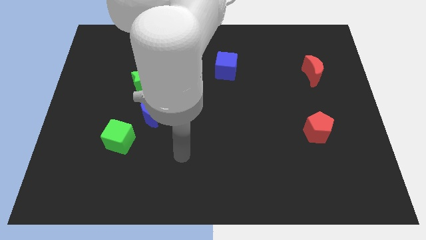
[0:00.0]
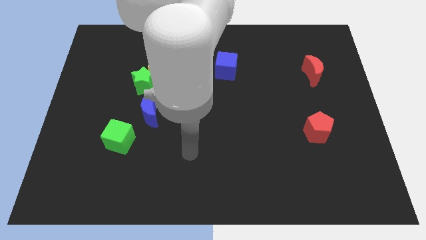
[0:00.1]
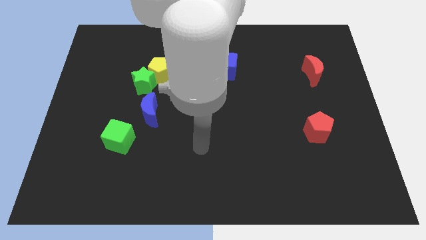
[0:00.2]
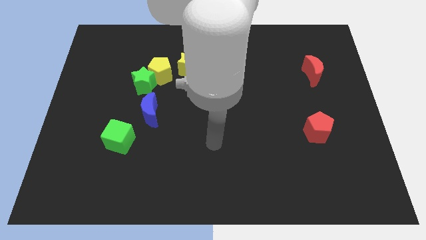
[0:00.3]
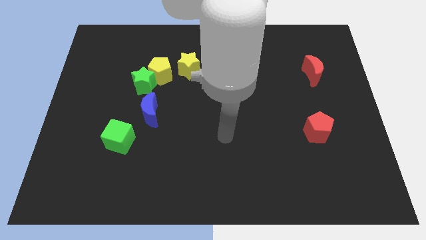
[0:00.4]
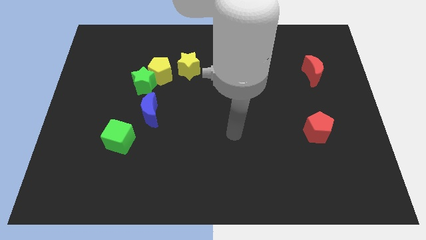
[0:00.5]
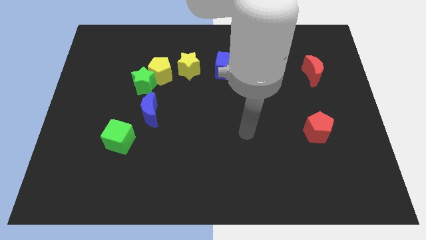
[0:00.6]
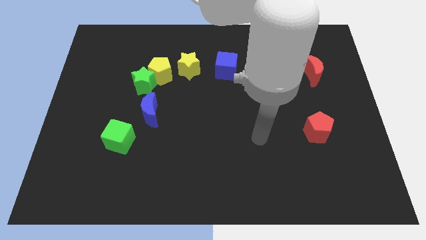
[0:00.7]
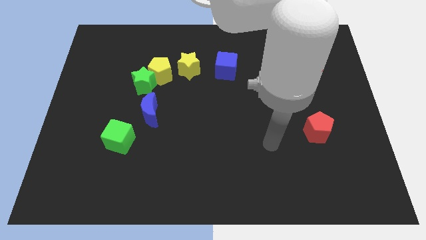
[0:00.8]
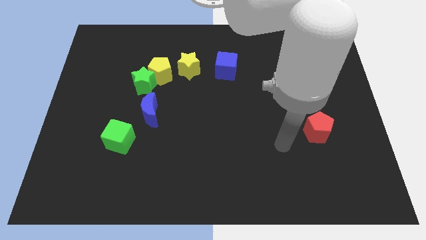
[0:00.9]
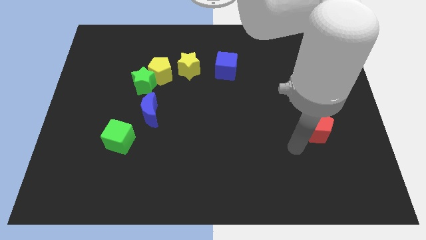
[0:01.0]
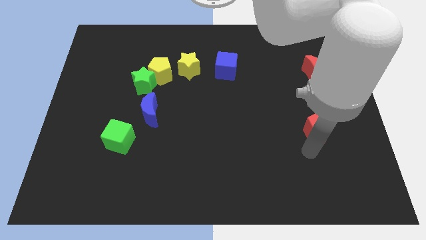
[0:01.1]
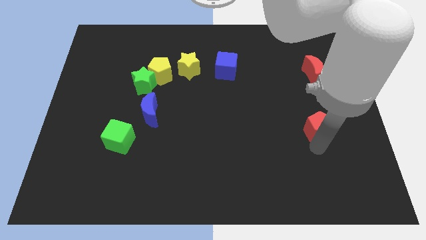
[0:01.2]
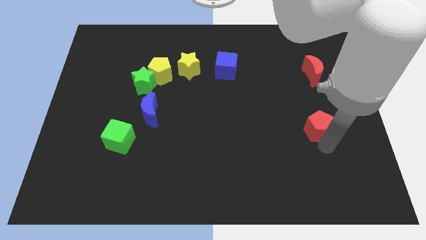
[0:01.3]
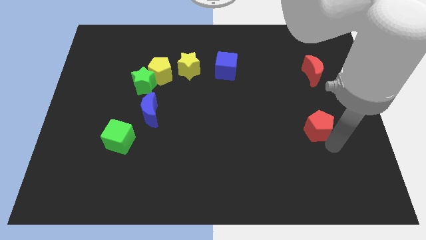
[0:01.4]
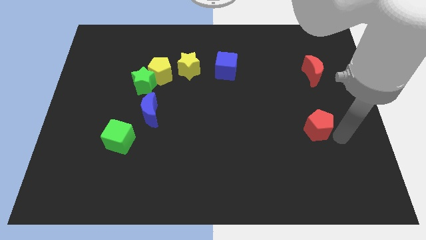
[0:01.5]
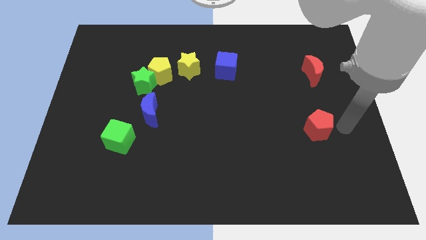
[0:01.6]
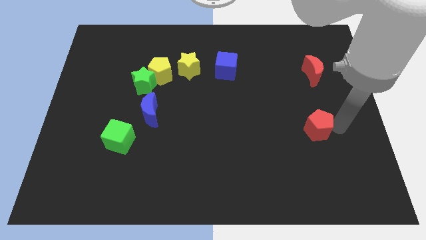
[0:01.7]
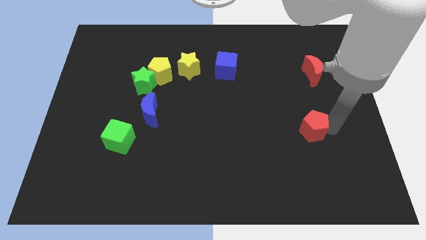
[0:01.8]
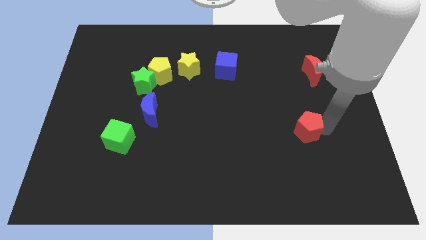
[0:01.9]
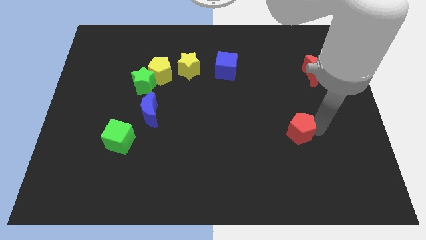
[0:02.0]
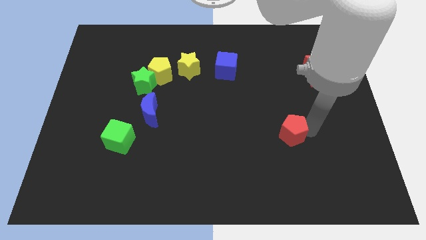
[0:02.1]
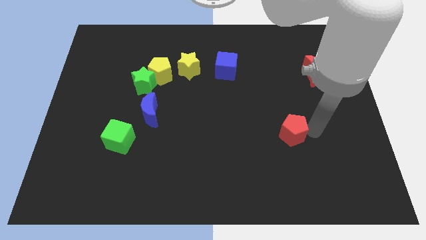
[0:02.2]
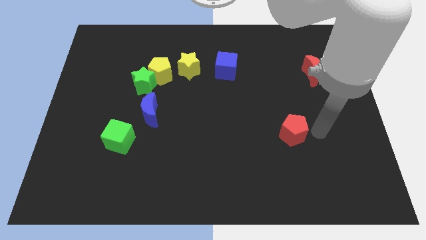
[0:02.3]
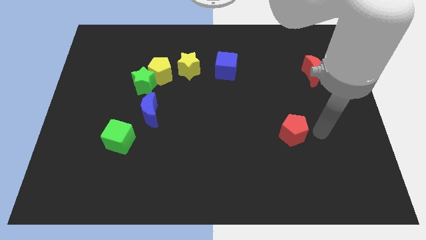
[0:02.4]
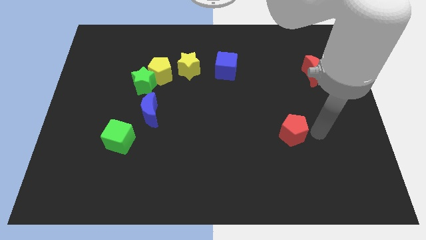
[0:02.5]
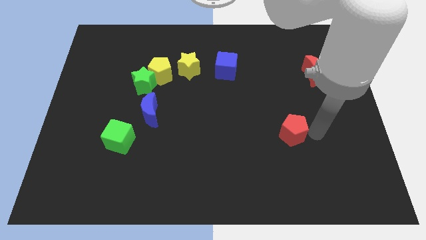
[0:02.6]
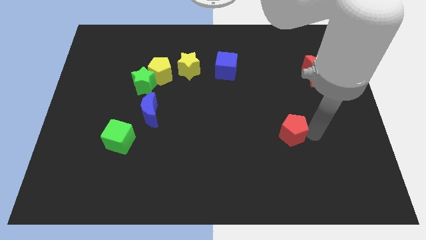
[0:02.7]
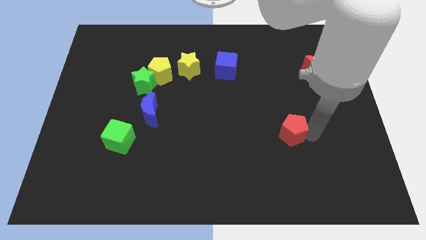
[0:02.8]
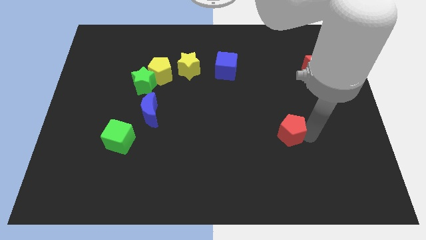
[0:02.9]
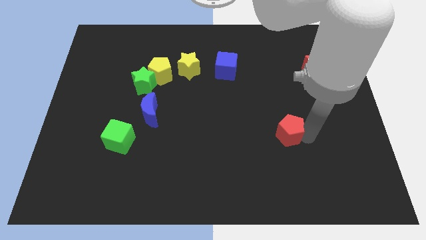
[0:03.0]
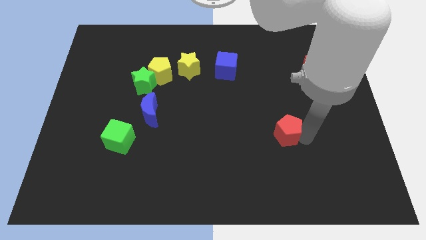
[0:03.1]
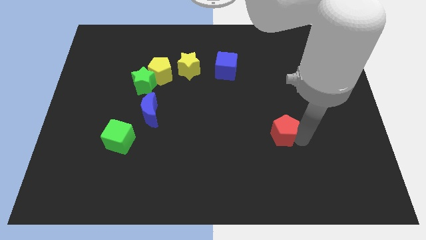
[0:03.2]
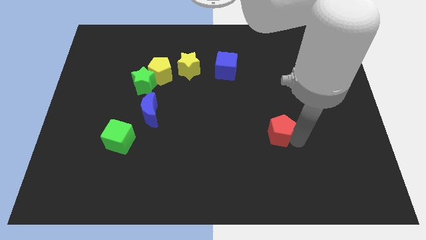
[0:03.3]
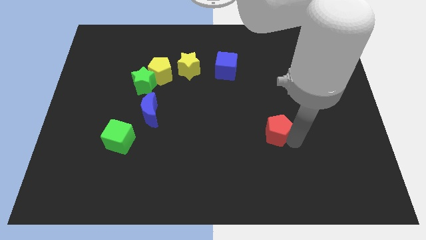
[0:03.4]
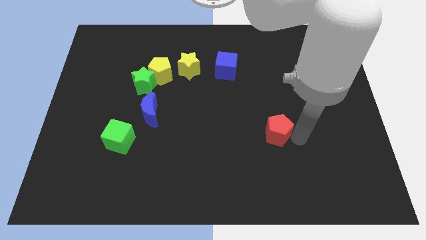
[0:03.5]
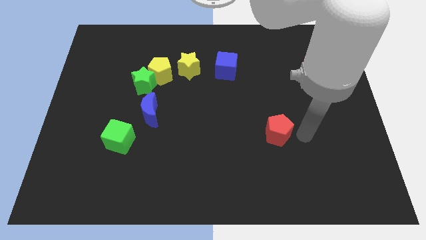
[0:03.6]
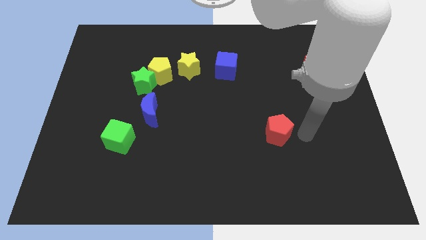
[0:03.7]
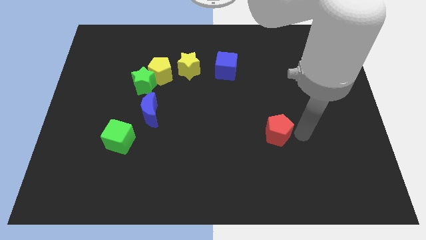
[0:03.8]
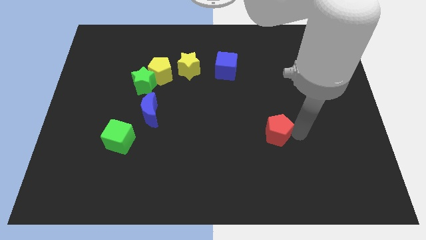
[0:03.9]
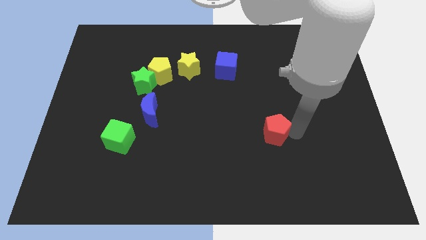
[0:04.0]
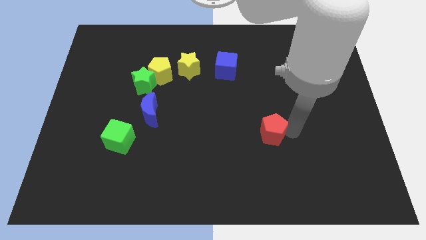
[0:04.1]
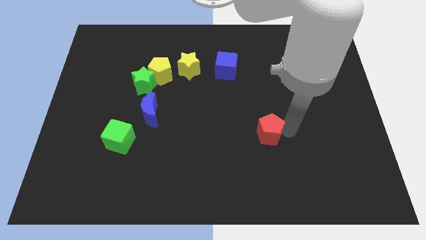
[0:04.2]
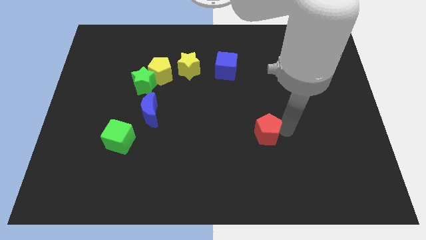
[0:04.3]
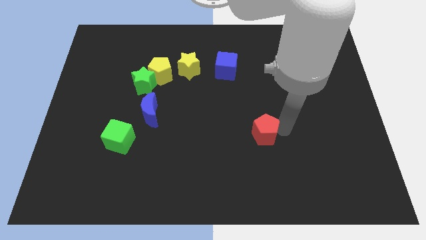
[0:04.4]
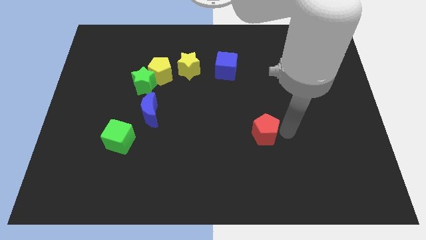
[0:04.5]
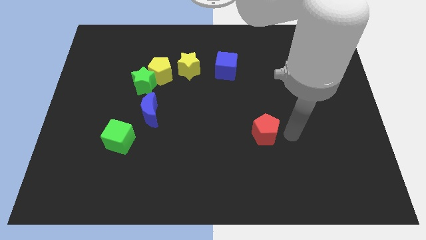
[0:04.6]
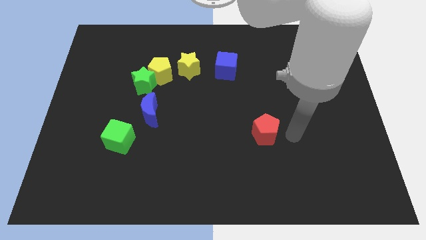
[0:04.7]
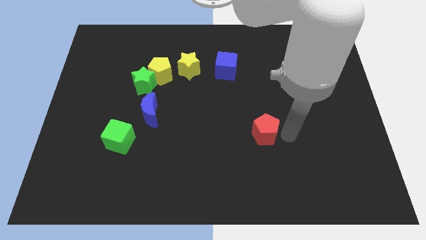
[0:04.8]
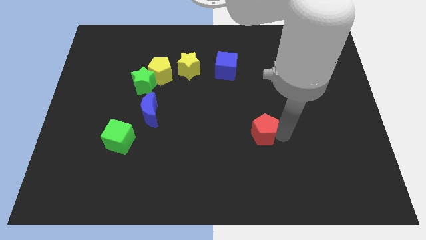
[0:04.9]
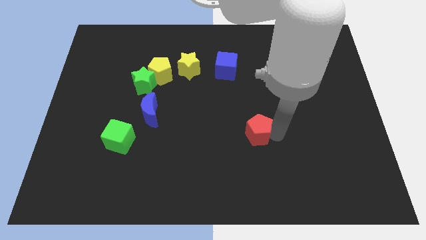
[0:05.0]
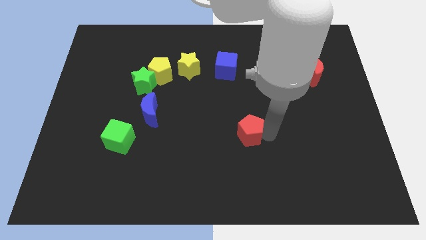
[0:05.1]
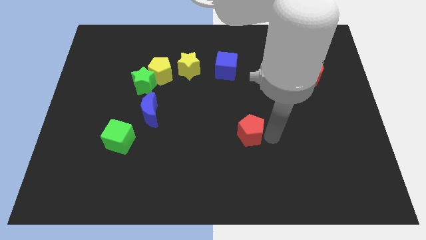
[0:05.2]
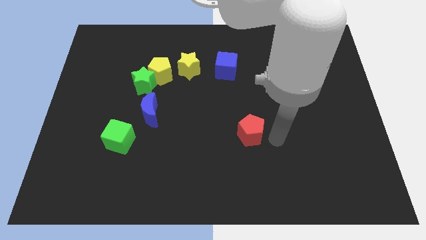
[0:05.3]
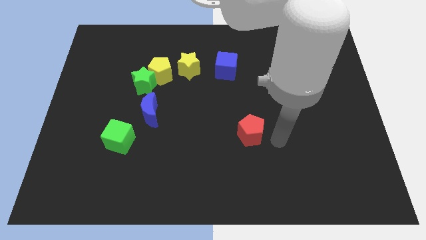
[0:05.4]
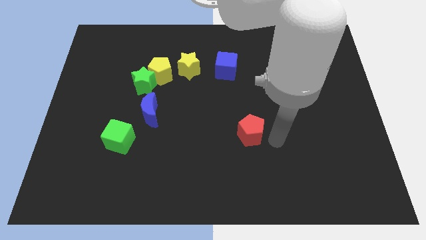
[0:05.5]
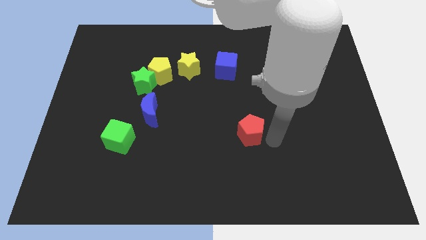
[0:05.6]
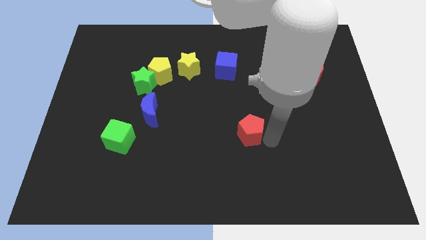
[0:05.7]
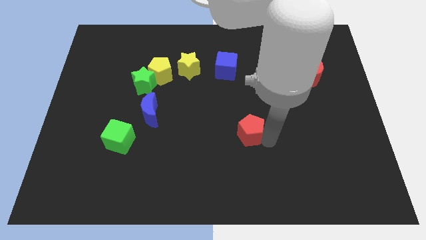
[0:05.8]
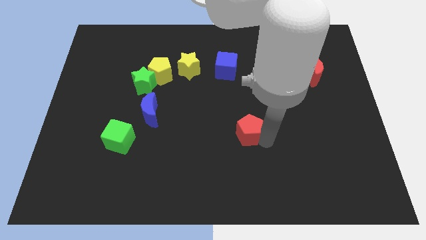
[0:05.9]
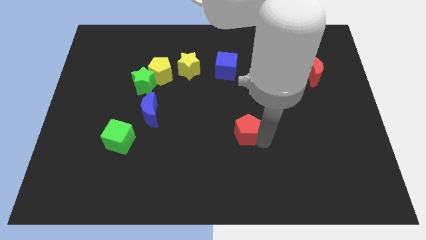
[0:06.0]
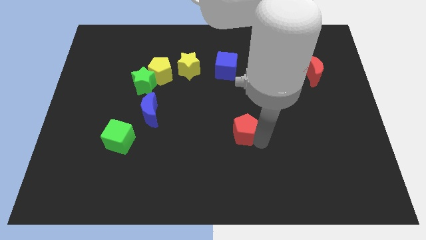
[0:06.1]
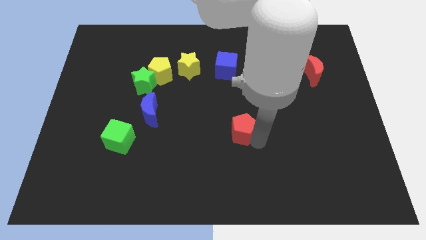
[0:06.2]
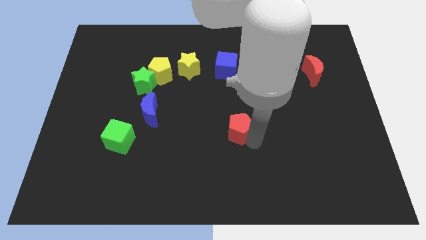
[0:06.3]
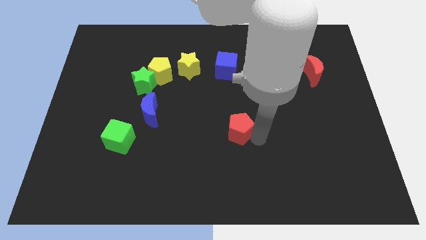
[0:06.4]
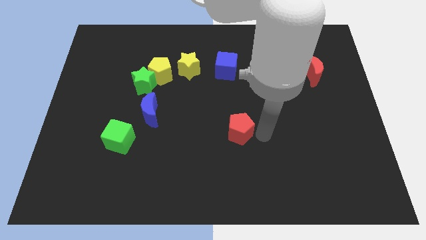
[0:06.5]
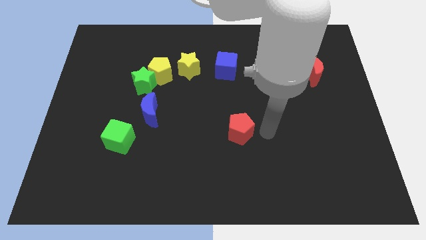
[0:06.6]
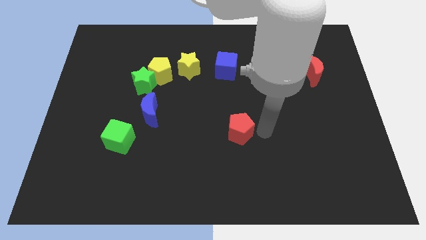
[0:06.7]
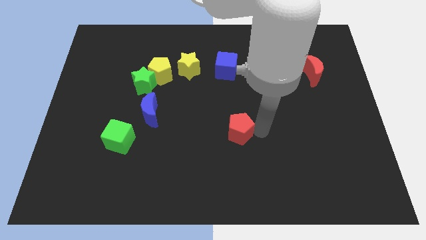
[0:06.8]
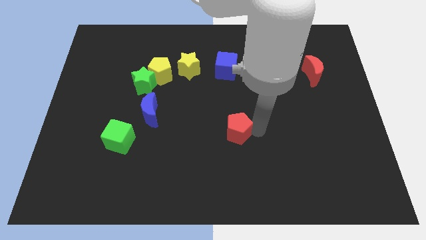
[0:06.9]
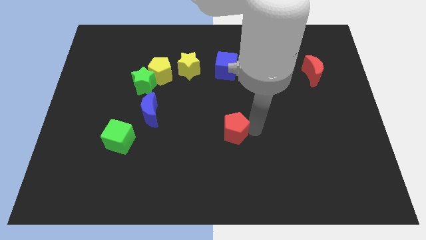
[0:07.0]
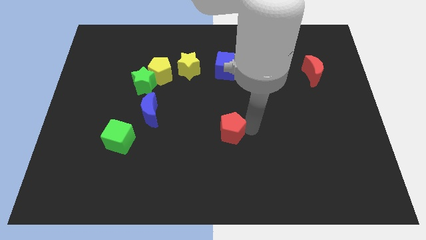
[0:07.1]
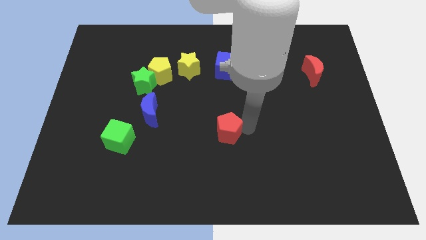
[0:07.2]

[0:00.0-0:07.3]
move the red pentagon to the left

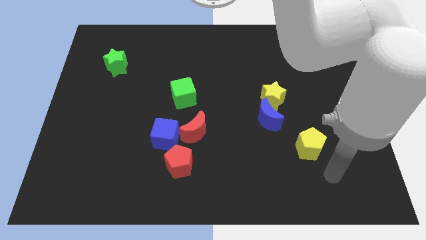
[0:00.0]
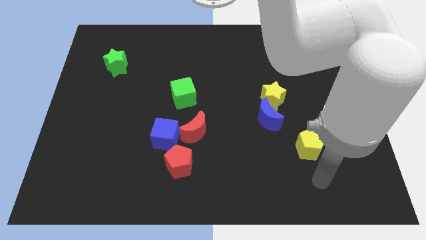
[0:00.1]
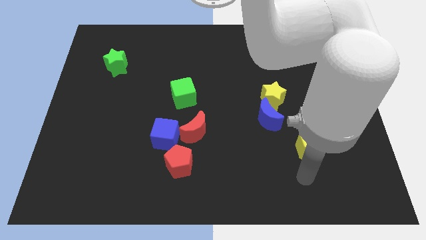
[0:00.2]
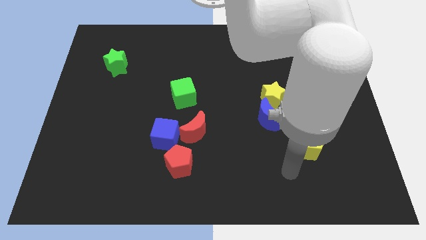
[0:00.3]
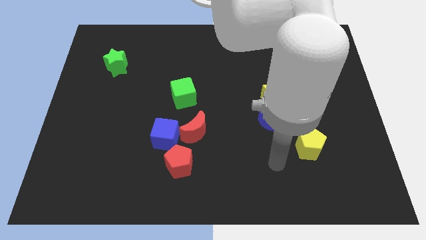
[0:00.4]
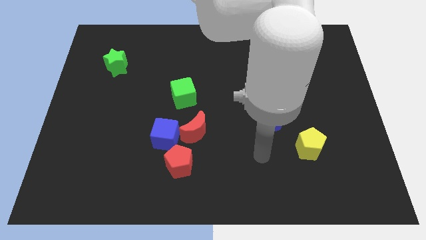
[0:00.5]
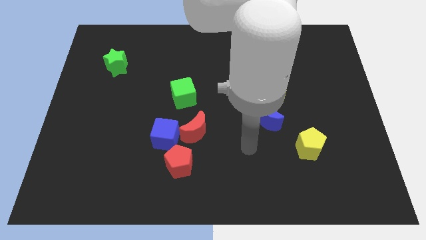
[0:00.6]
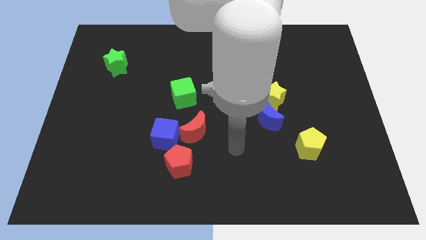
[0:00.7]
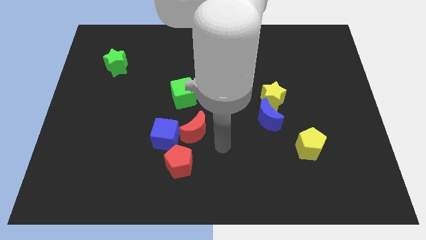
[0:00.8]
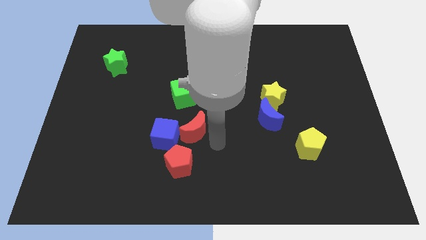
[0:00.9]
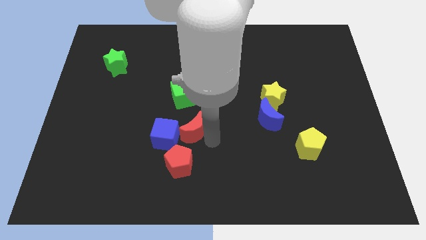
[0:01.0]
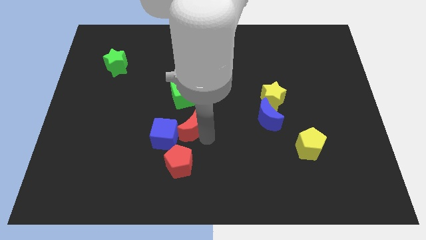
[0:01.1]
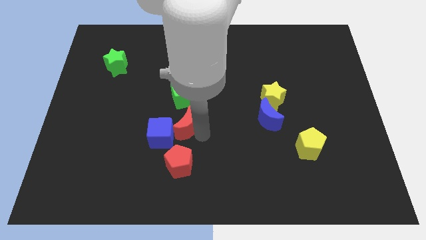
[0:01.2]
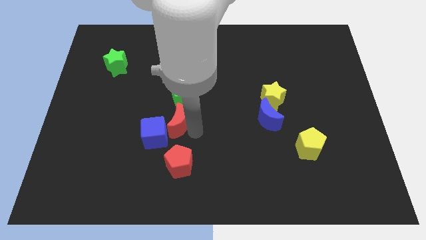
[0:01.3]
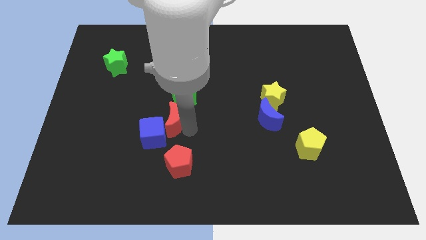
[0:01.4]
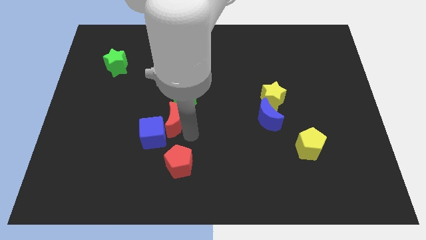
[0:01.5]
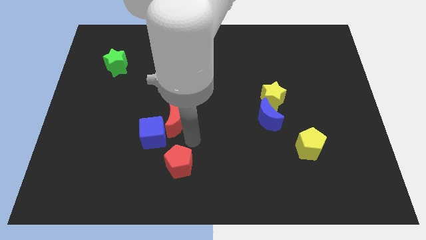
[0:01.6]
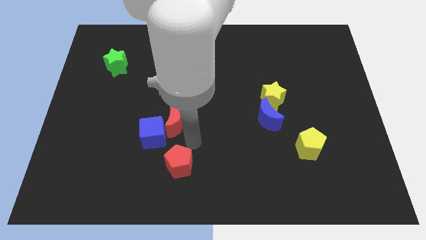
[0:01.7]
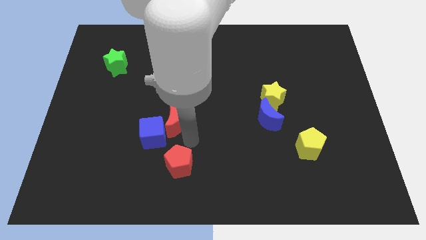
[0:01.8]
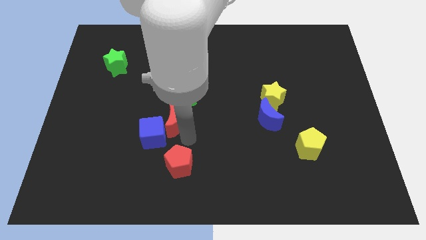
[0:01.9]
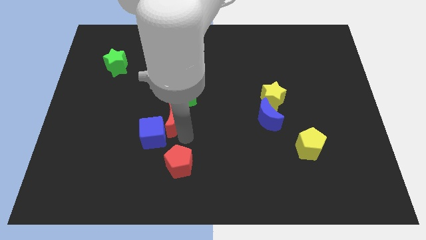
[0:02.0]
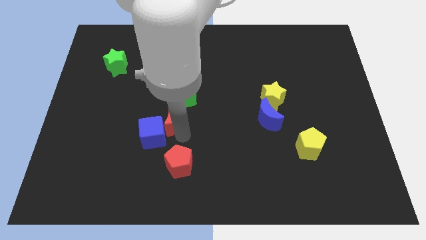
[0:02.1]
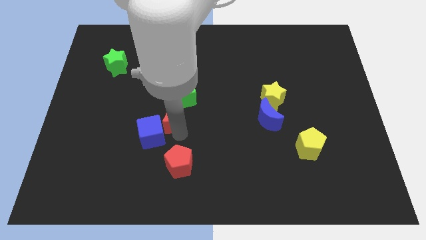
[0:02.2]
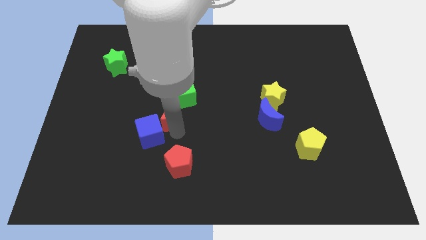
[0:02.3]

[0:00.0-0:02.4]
slide the red moon diagonally upwards and left slightly
